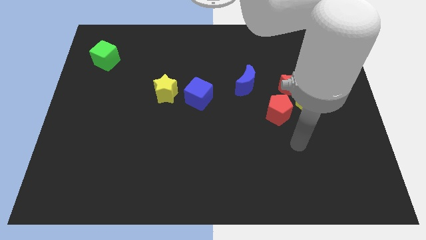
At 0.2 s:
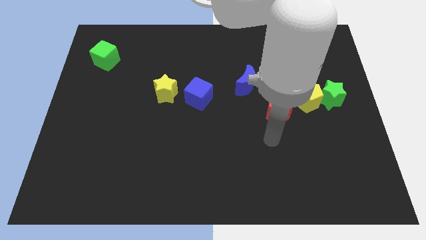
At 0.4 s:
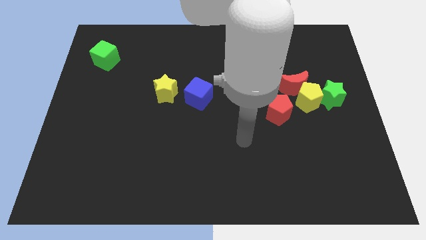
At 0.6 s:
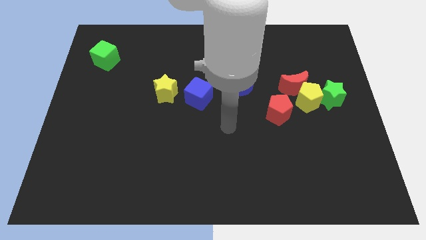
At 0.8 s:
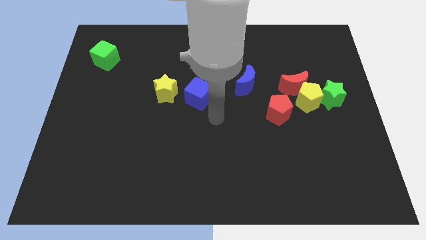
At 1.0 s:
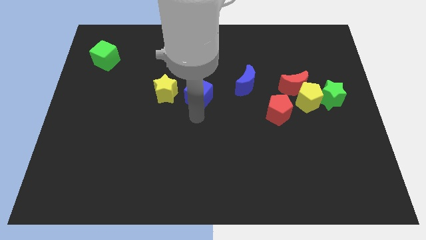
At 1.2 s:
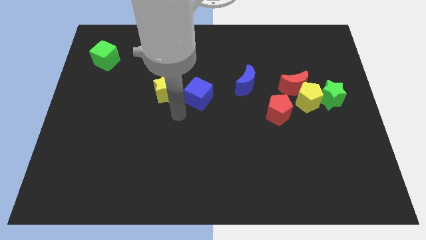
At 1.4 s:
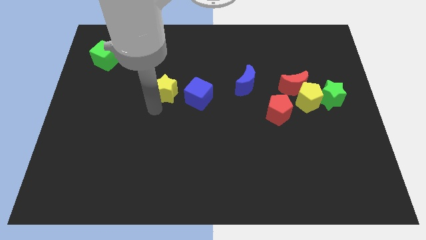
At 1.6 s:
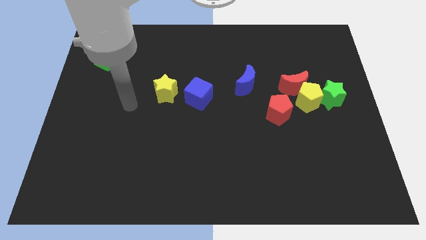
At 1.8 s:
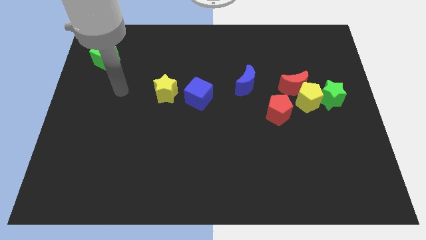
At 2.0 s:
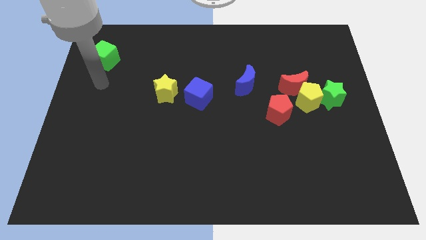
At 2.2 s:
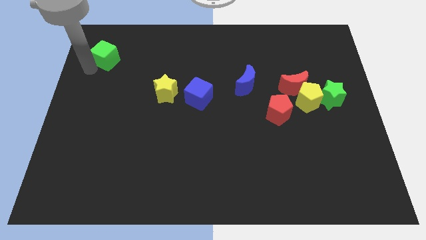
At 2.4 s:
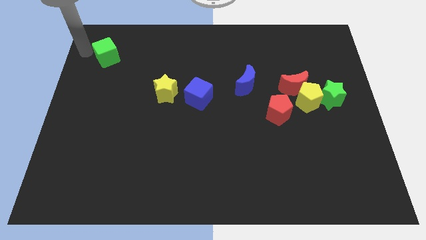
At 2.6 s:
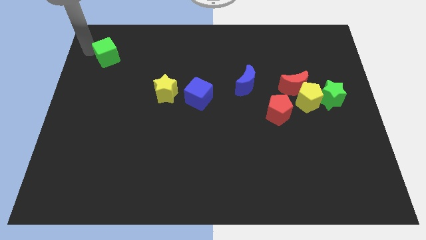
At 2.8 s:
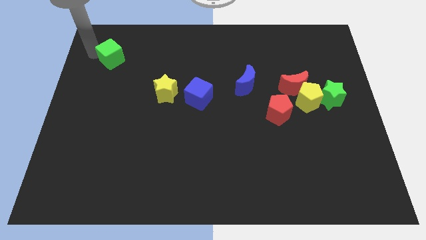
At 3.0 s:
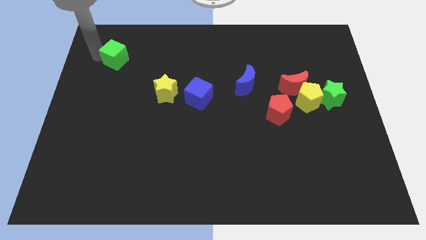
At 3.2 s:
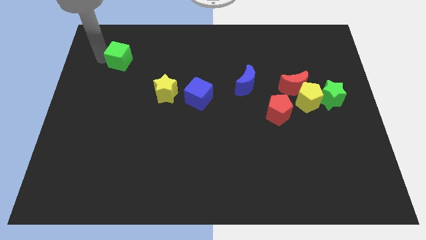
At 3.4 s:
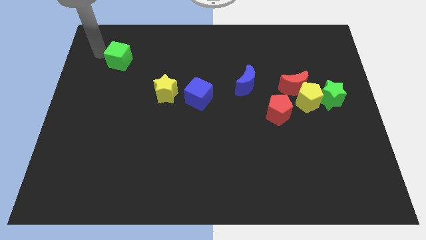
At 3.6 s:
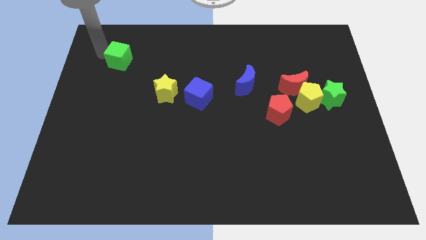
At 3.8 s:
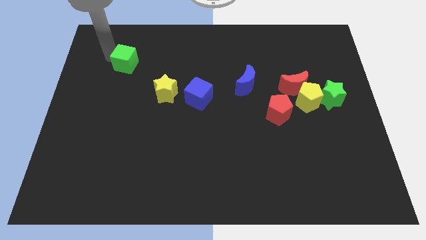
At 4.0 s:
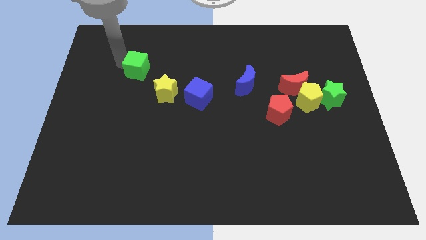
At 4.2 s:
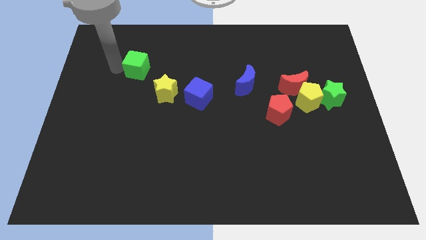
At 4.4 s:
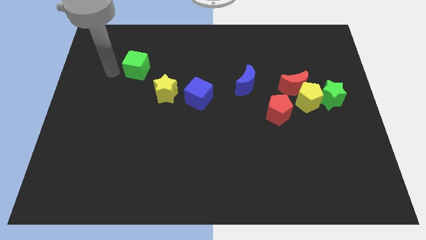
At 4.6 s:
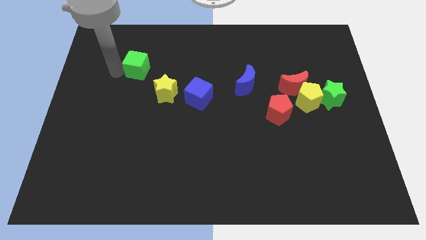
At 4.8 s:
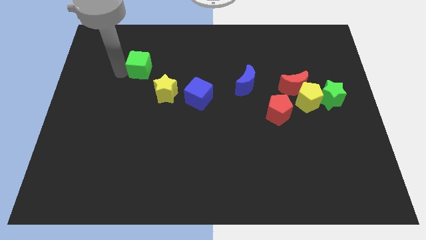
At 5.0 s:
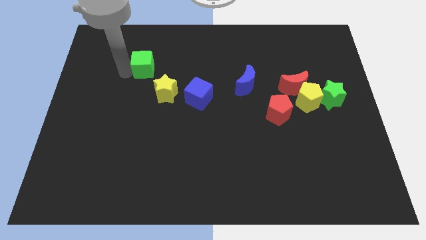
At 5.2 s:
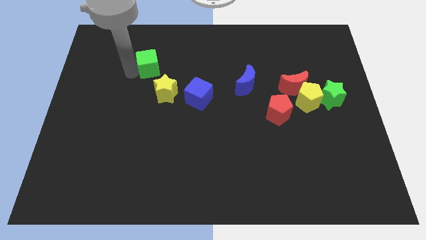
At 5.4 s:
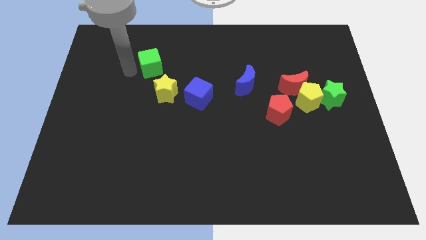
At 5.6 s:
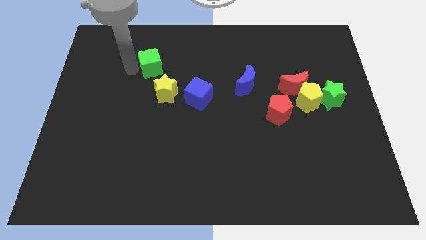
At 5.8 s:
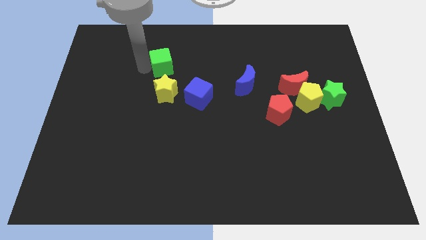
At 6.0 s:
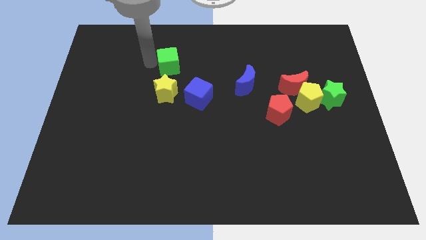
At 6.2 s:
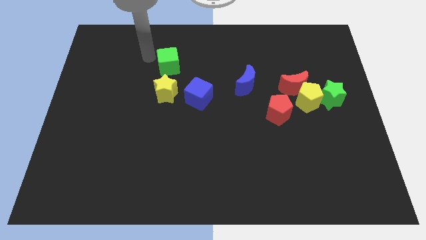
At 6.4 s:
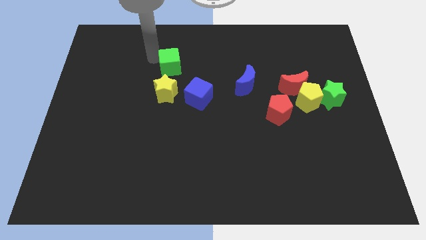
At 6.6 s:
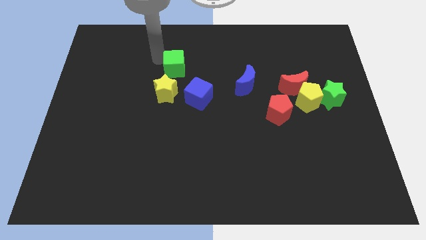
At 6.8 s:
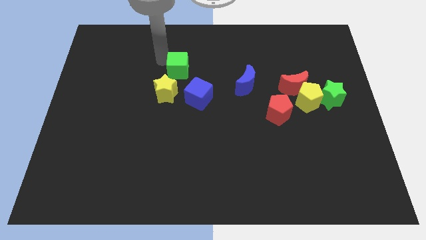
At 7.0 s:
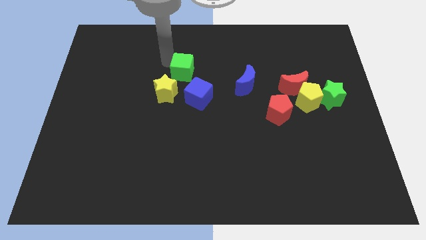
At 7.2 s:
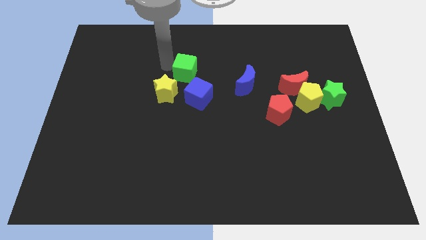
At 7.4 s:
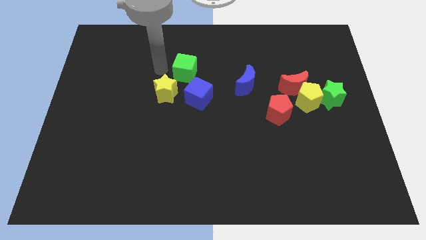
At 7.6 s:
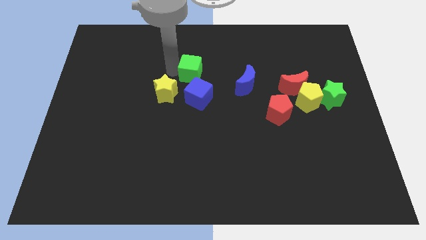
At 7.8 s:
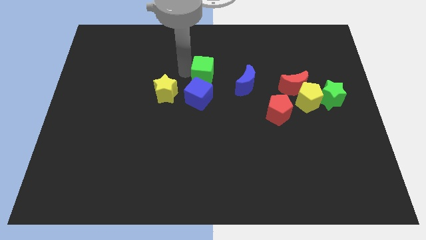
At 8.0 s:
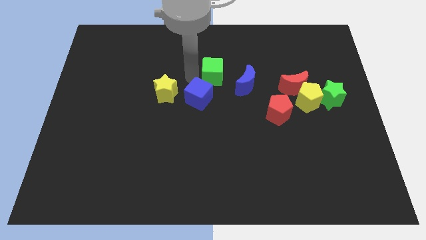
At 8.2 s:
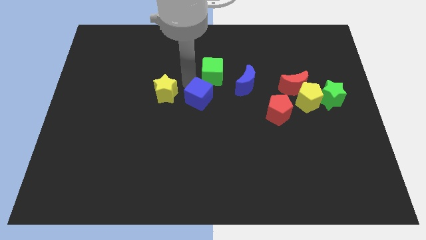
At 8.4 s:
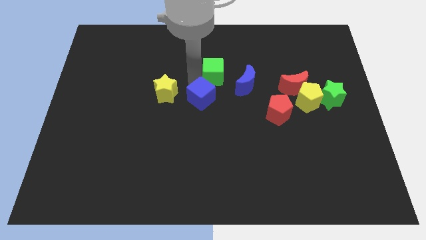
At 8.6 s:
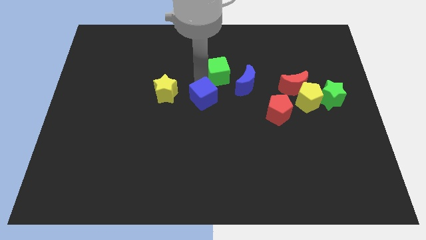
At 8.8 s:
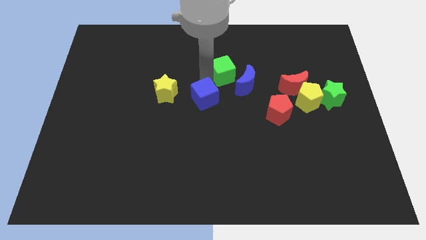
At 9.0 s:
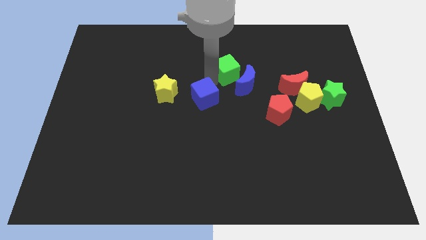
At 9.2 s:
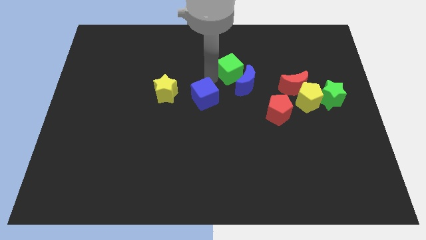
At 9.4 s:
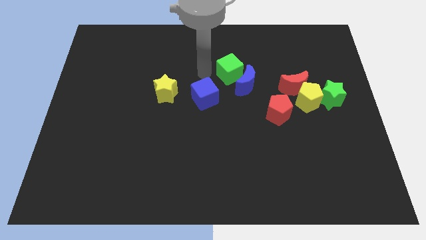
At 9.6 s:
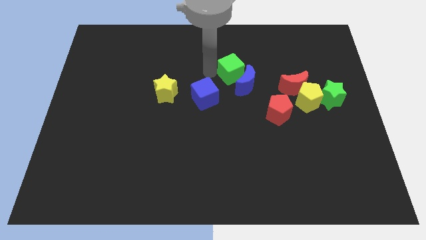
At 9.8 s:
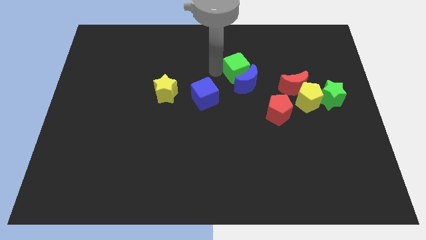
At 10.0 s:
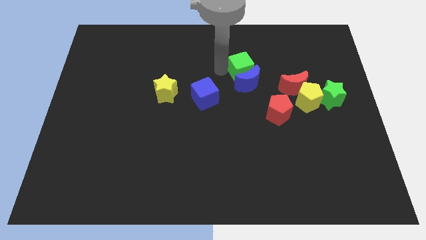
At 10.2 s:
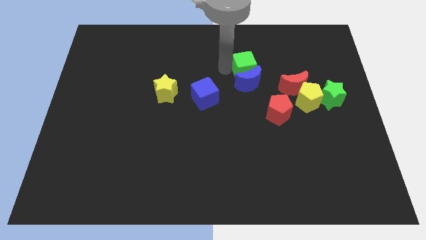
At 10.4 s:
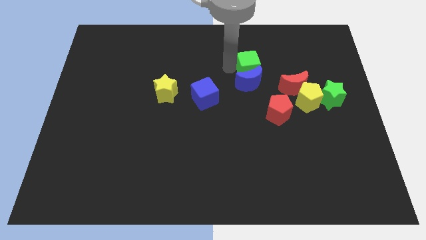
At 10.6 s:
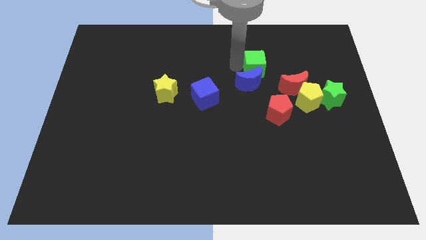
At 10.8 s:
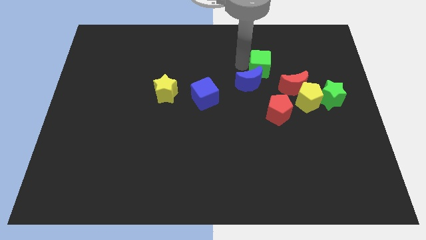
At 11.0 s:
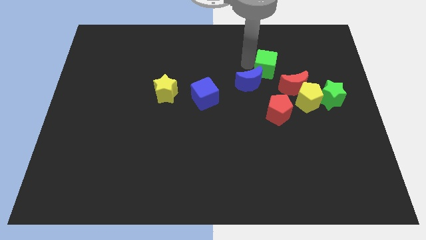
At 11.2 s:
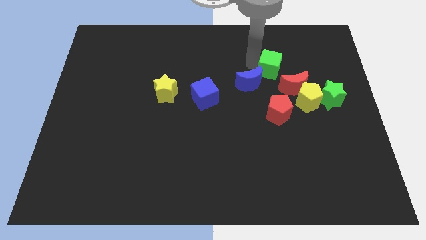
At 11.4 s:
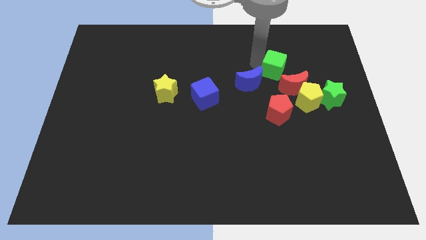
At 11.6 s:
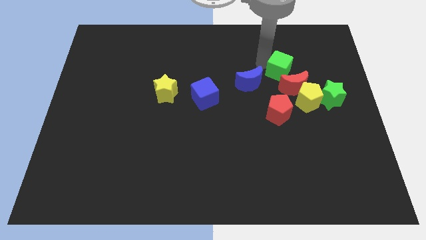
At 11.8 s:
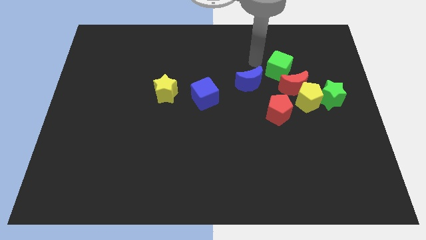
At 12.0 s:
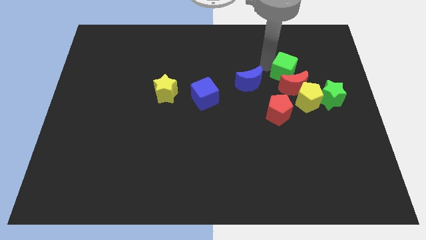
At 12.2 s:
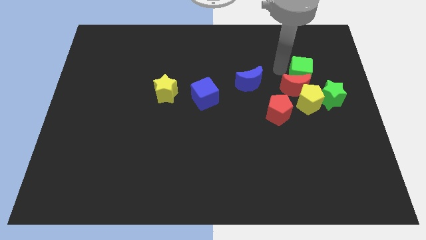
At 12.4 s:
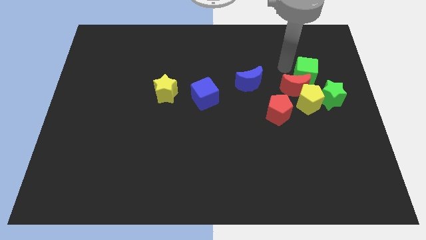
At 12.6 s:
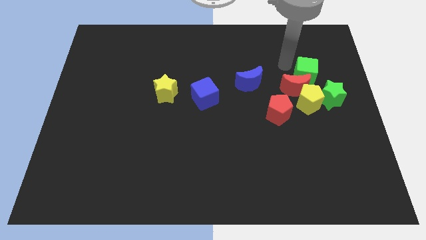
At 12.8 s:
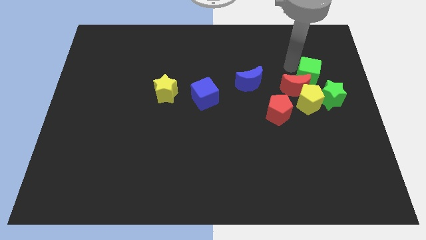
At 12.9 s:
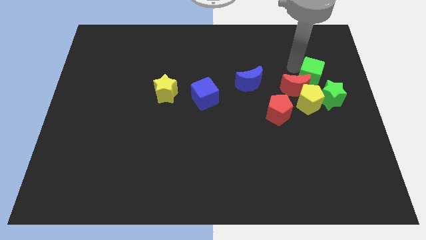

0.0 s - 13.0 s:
slide the green cube to the top right side of the yellow pentagon

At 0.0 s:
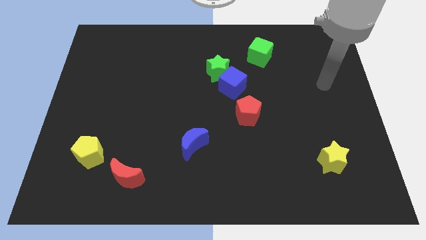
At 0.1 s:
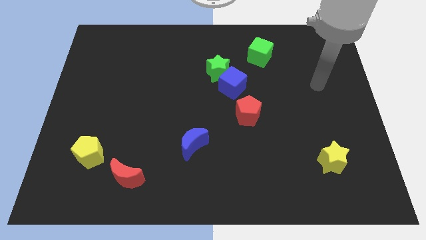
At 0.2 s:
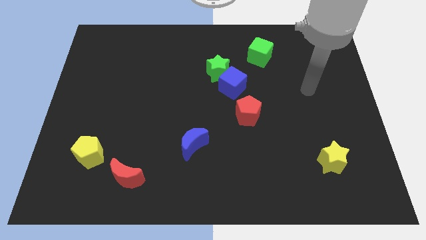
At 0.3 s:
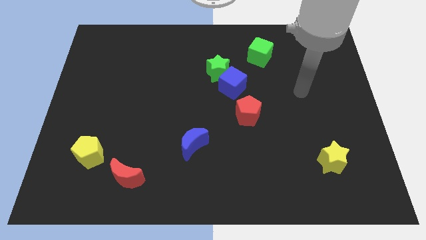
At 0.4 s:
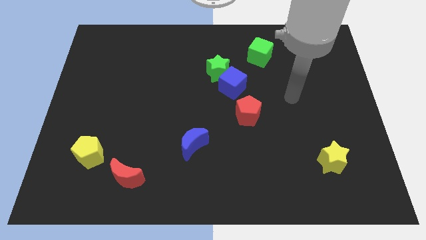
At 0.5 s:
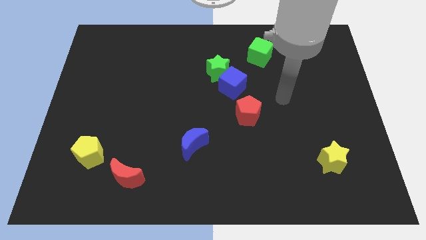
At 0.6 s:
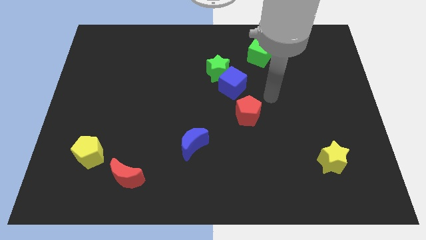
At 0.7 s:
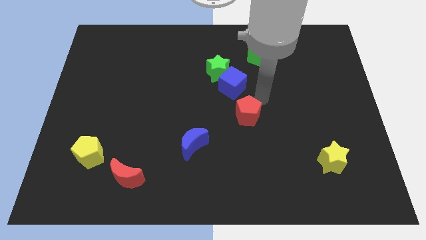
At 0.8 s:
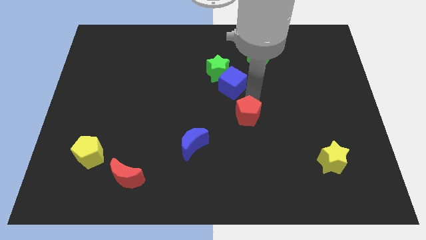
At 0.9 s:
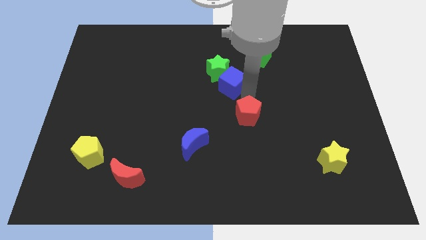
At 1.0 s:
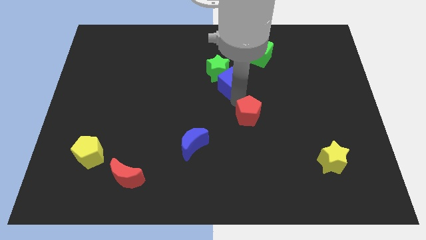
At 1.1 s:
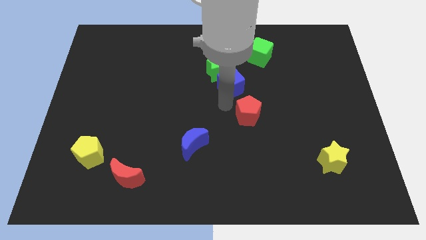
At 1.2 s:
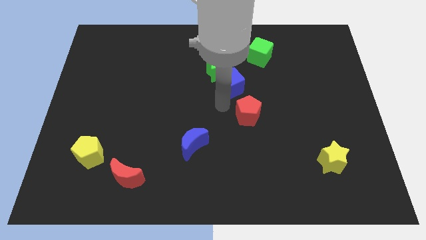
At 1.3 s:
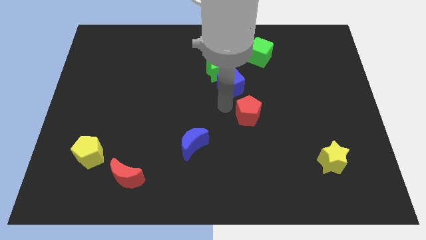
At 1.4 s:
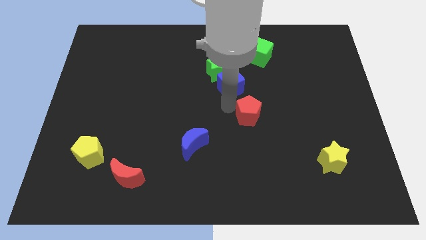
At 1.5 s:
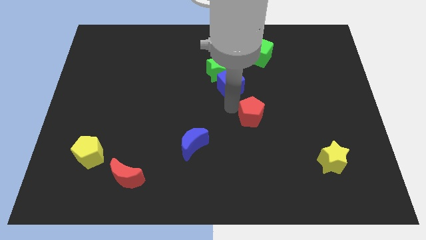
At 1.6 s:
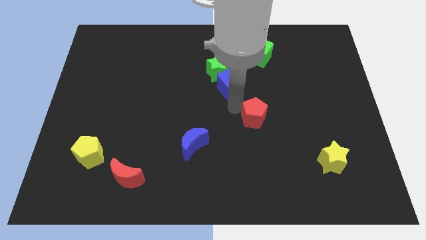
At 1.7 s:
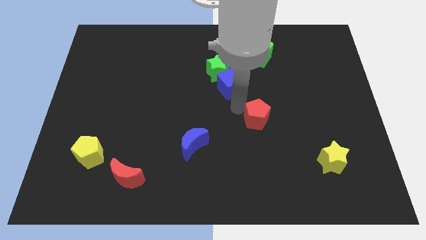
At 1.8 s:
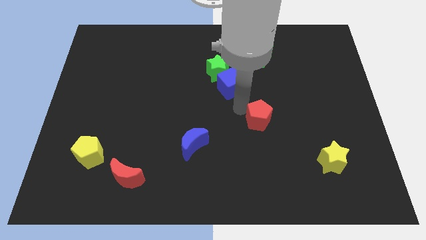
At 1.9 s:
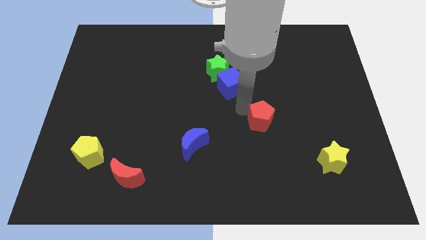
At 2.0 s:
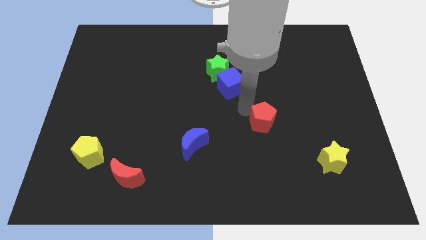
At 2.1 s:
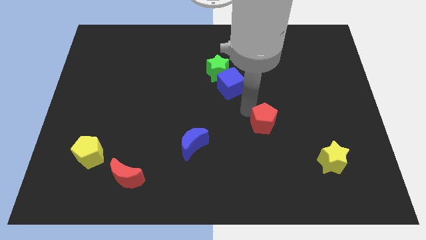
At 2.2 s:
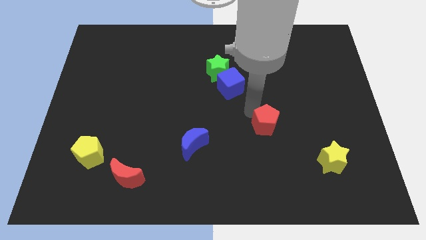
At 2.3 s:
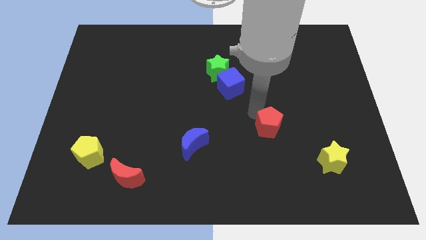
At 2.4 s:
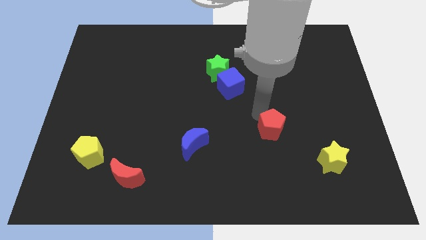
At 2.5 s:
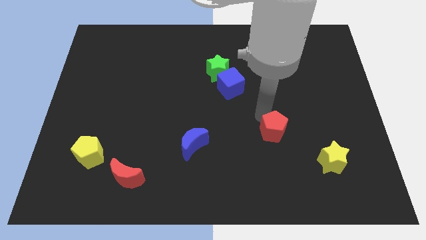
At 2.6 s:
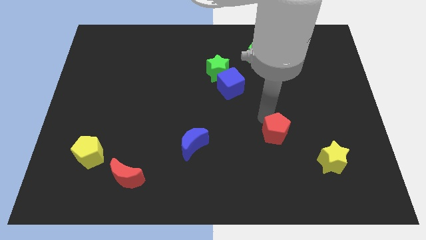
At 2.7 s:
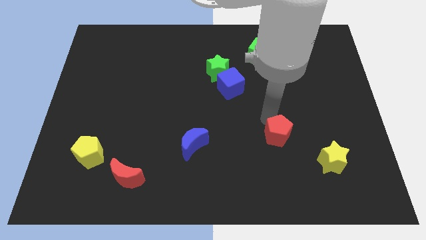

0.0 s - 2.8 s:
push the red pentagon to the top left side of the yellow star
